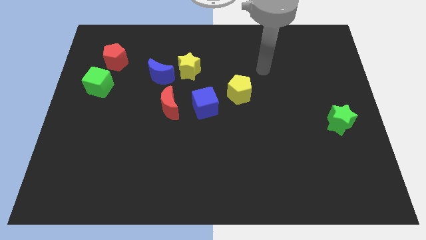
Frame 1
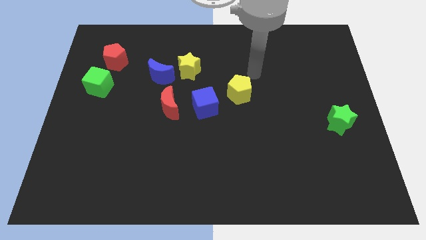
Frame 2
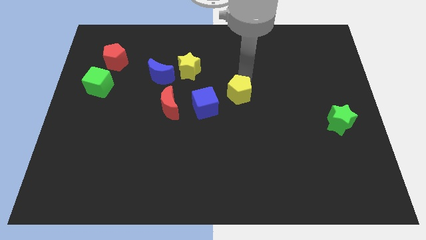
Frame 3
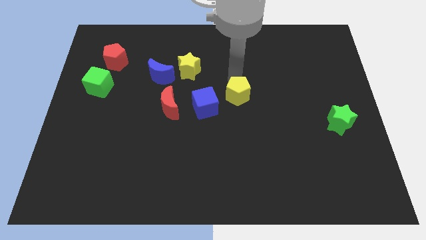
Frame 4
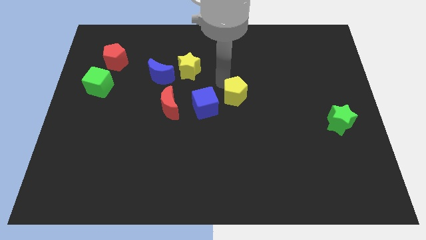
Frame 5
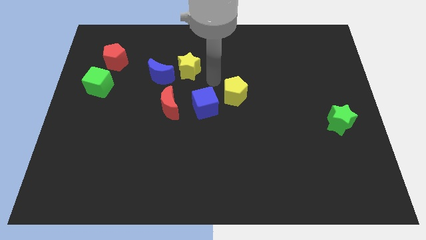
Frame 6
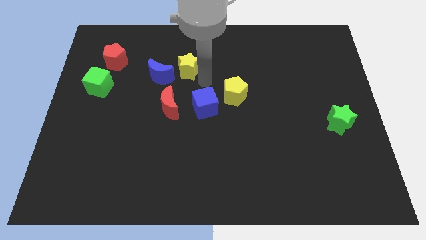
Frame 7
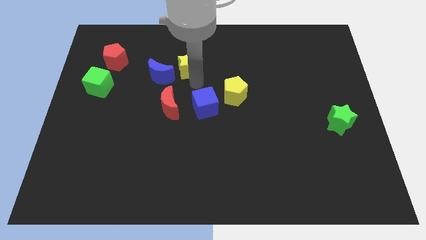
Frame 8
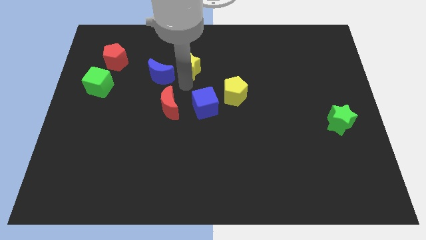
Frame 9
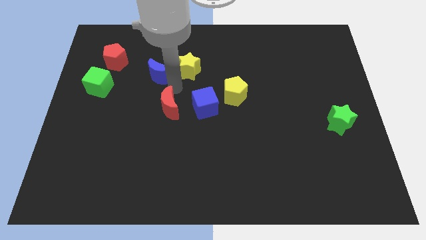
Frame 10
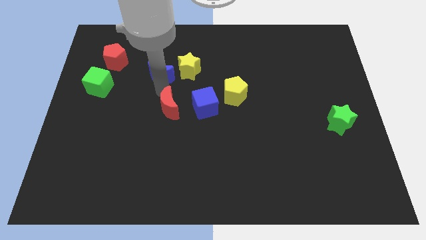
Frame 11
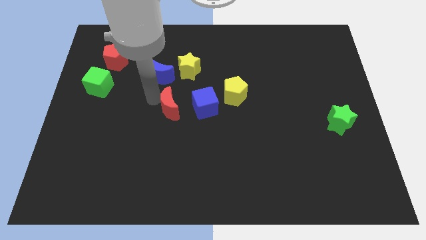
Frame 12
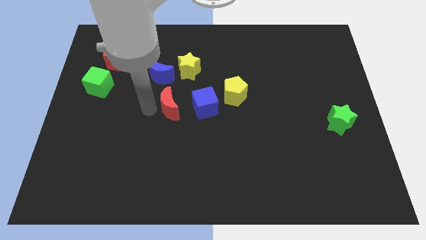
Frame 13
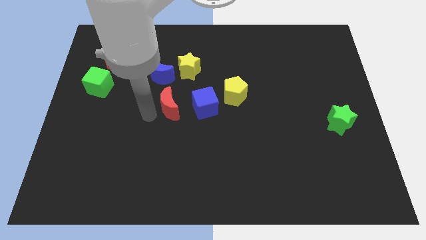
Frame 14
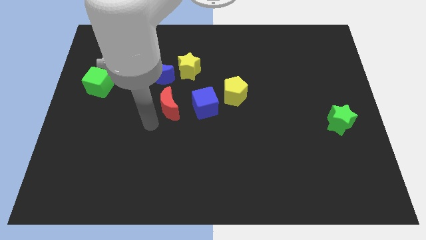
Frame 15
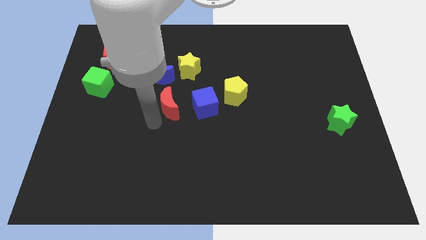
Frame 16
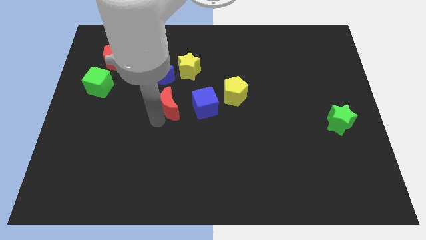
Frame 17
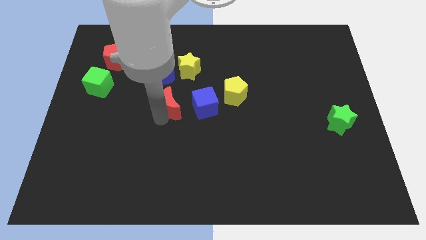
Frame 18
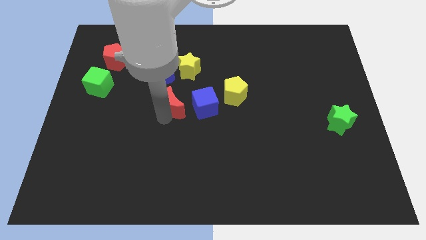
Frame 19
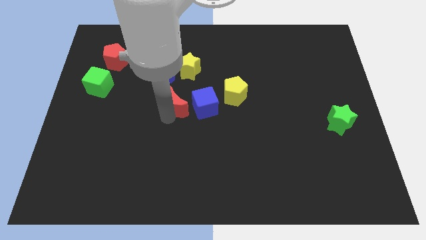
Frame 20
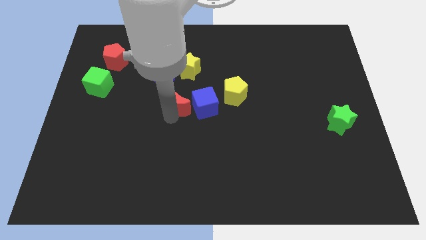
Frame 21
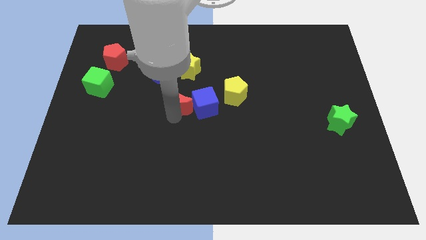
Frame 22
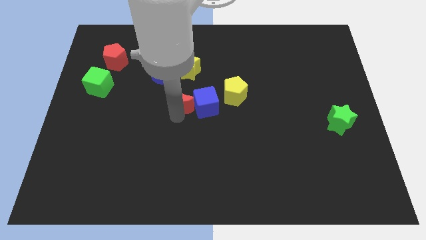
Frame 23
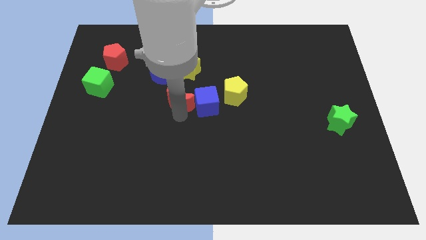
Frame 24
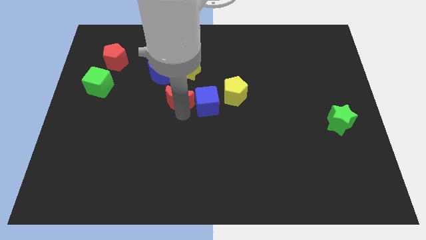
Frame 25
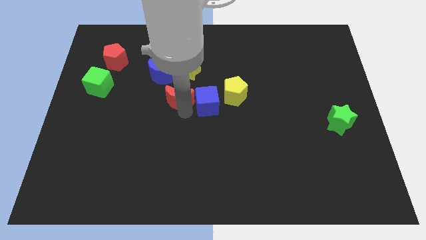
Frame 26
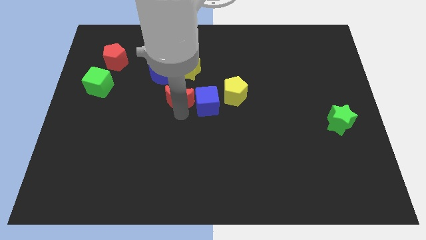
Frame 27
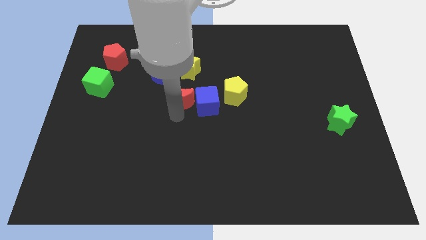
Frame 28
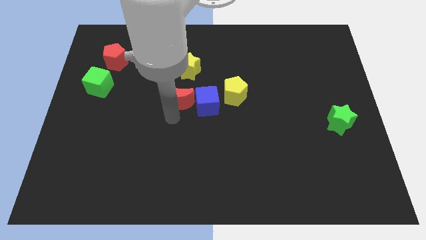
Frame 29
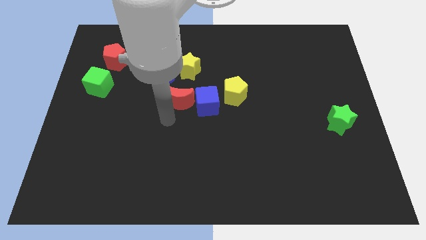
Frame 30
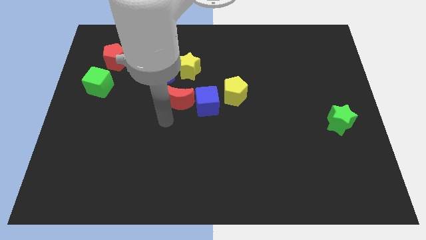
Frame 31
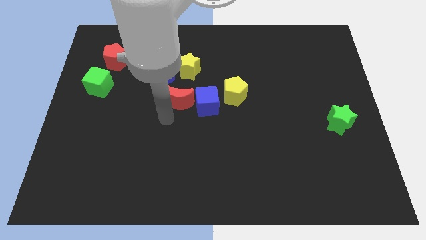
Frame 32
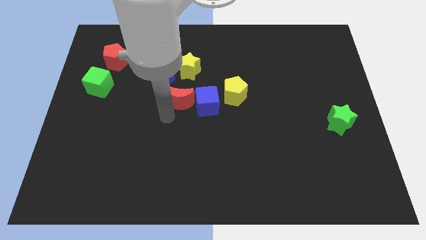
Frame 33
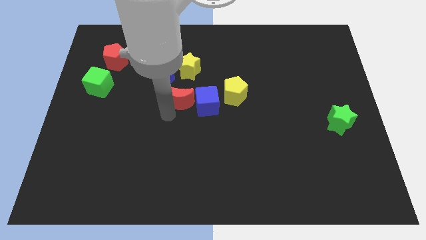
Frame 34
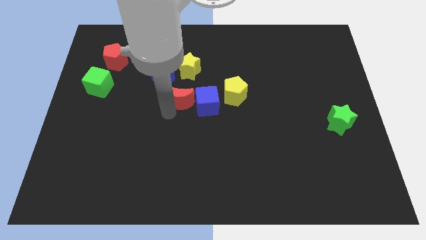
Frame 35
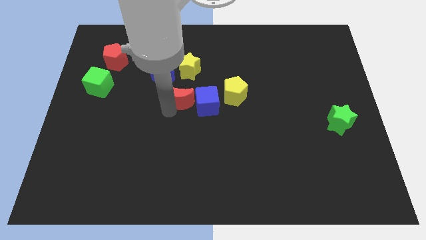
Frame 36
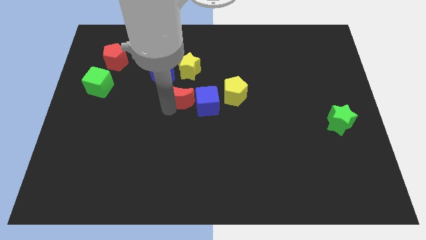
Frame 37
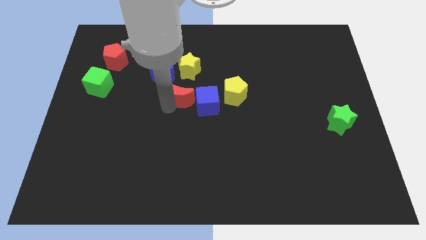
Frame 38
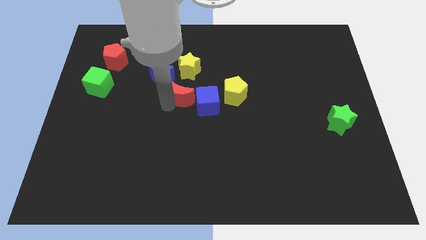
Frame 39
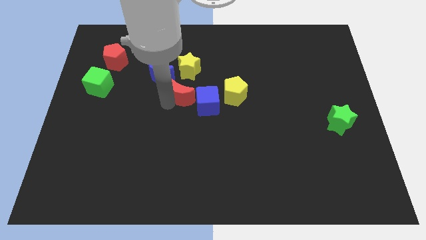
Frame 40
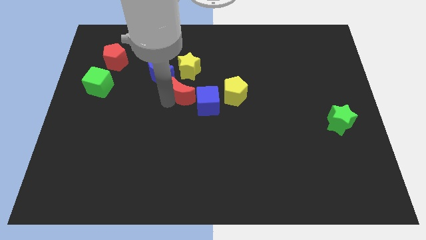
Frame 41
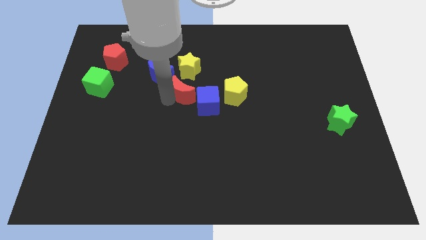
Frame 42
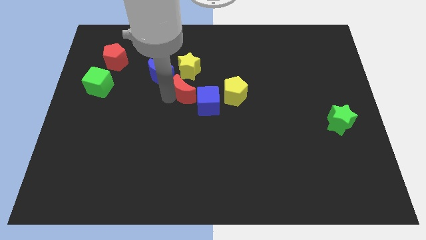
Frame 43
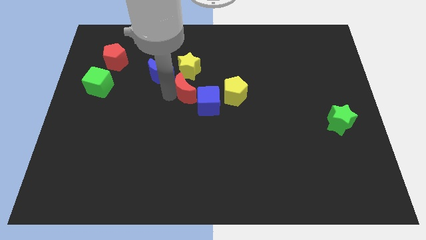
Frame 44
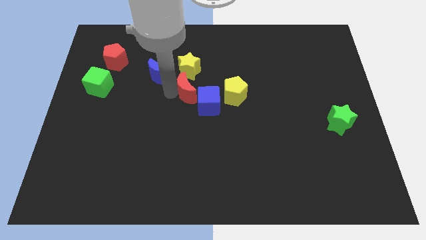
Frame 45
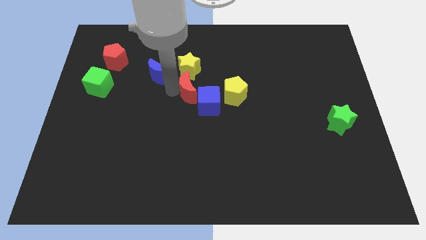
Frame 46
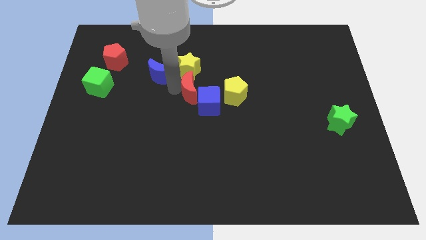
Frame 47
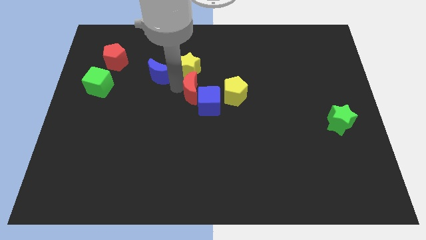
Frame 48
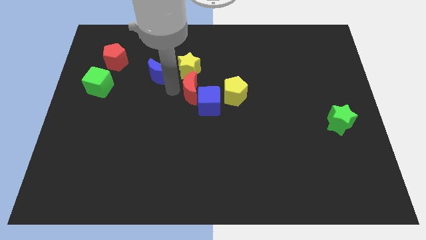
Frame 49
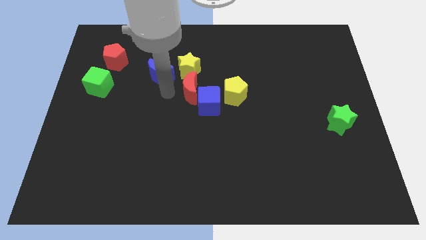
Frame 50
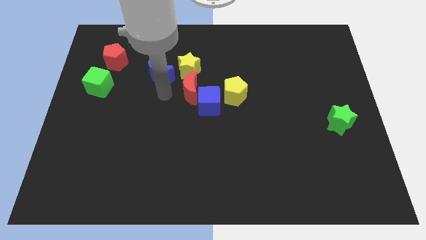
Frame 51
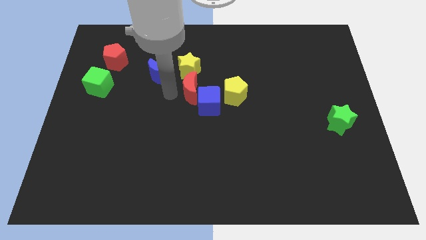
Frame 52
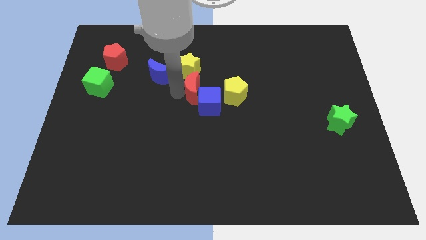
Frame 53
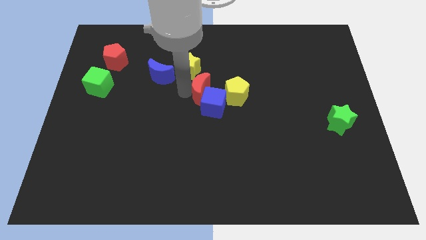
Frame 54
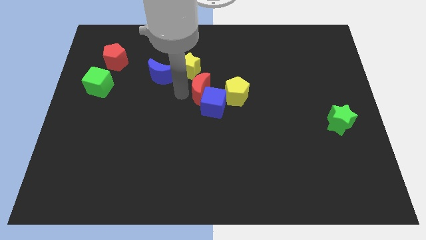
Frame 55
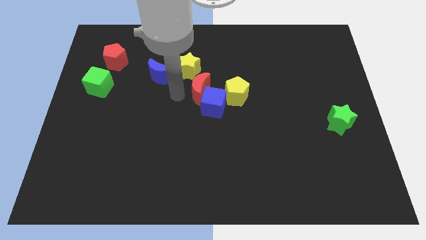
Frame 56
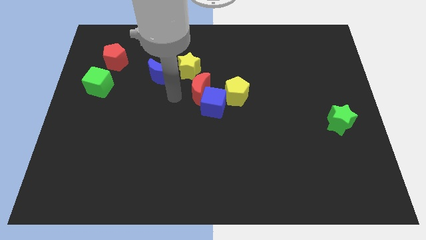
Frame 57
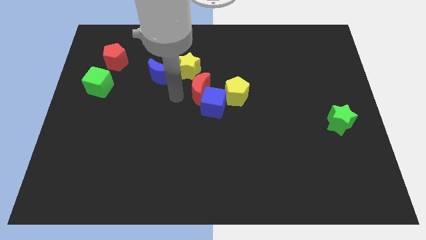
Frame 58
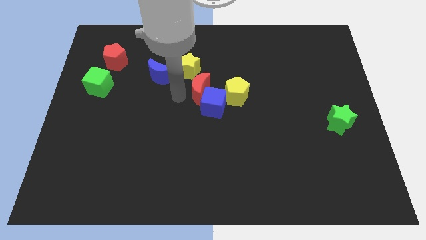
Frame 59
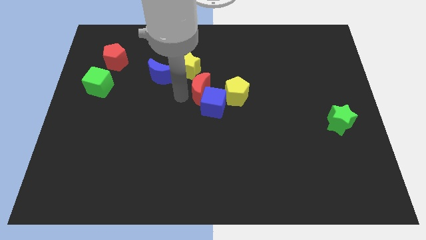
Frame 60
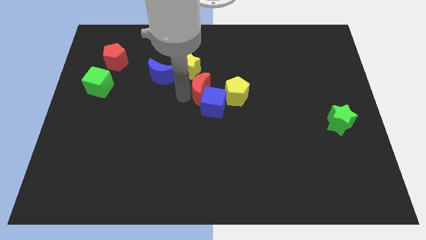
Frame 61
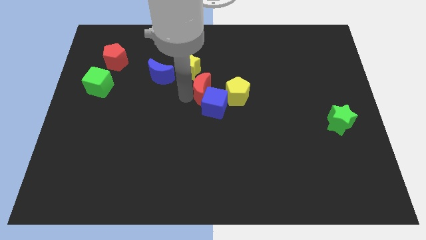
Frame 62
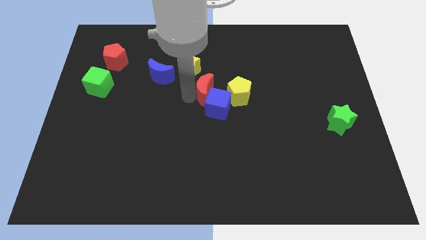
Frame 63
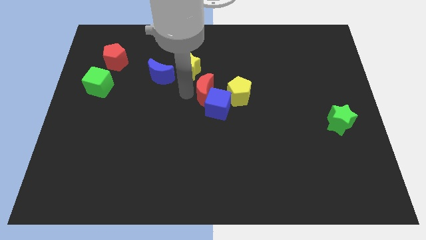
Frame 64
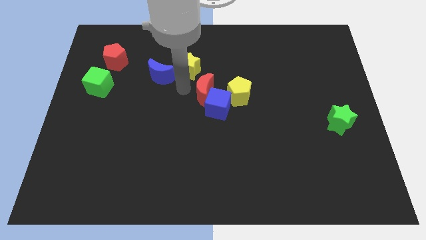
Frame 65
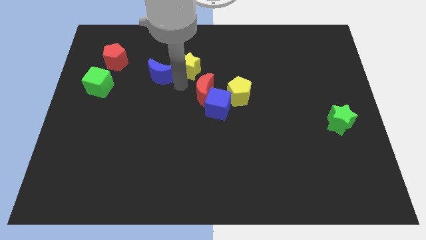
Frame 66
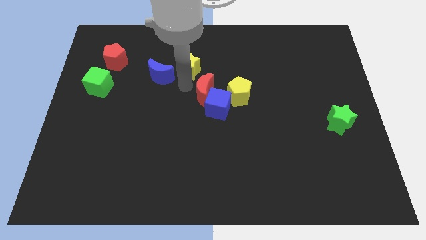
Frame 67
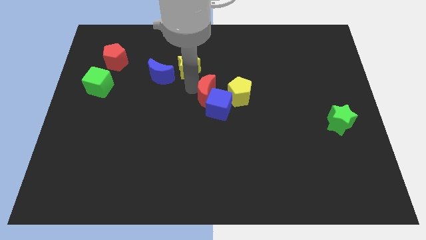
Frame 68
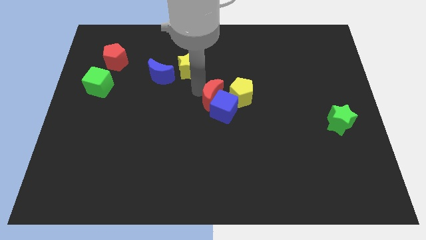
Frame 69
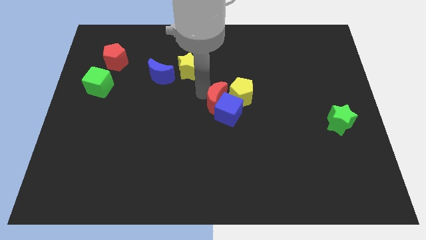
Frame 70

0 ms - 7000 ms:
move the red moon to the yellow pentagon
